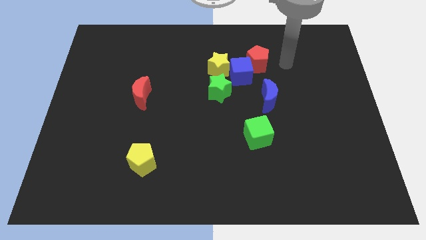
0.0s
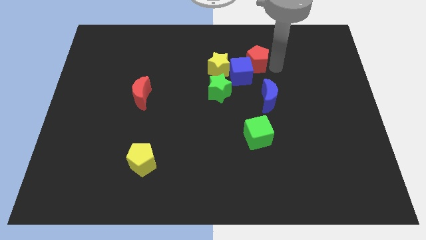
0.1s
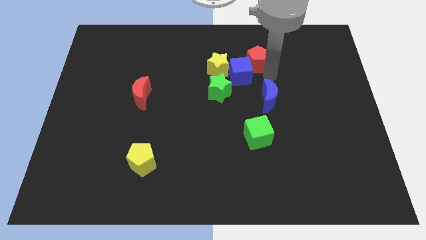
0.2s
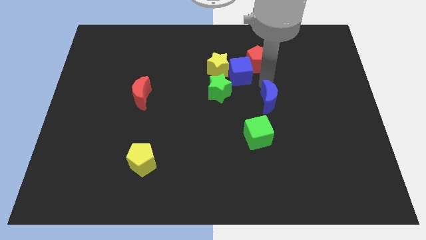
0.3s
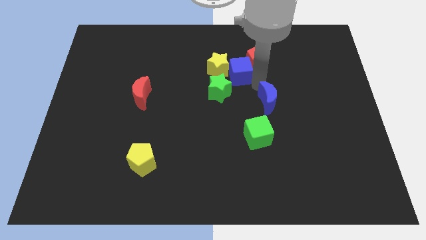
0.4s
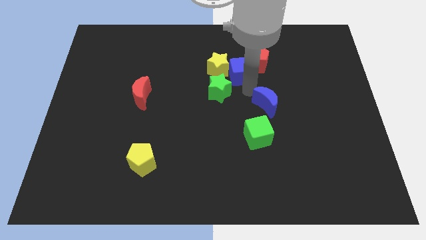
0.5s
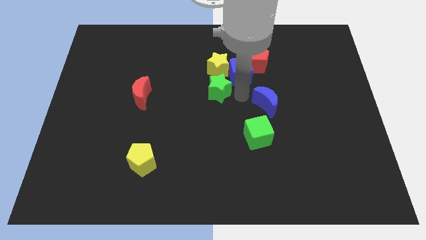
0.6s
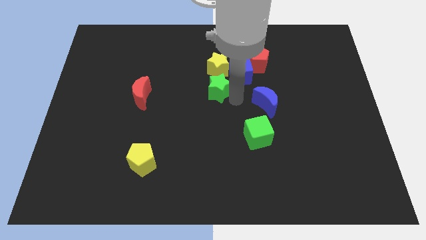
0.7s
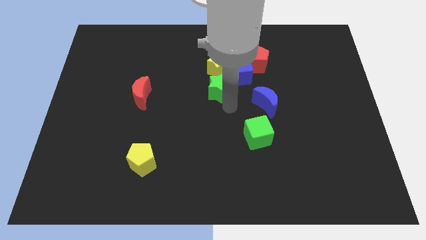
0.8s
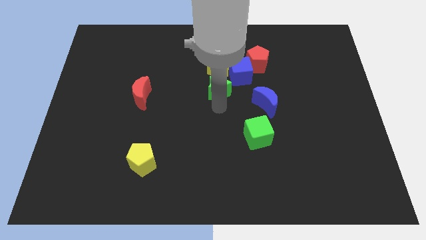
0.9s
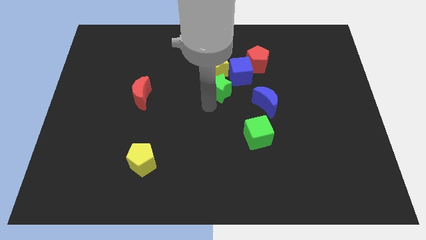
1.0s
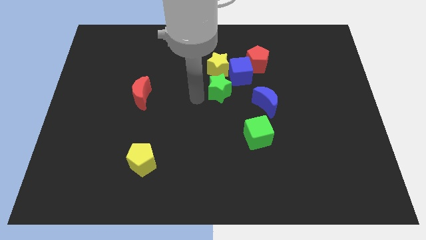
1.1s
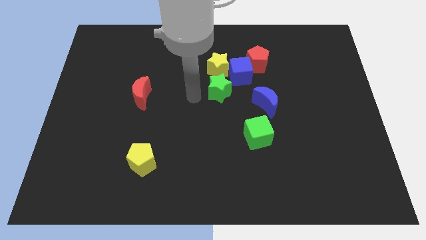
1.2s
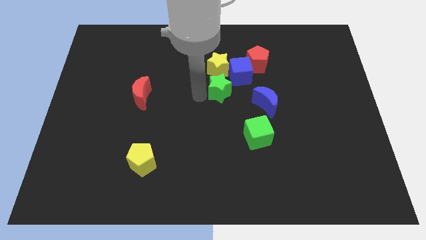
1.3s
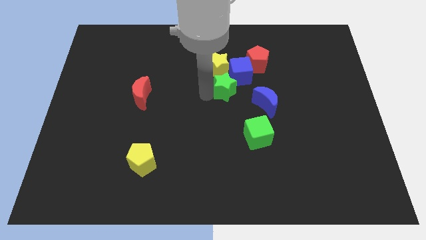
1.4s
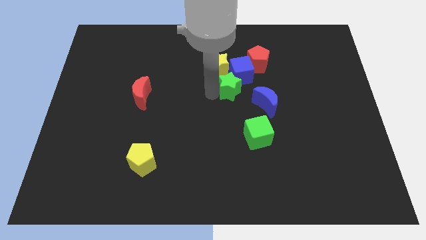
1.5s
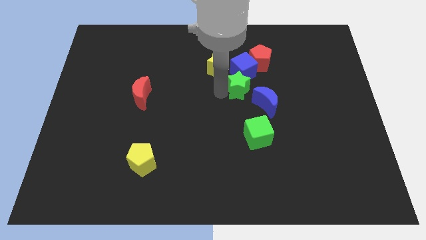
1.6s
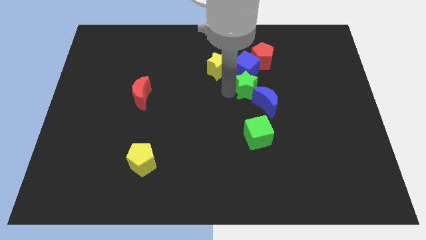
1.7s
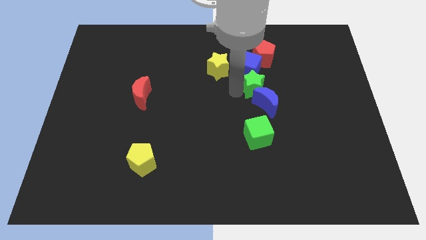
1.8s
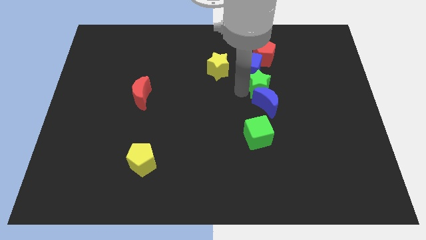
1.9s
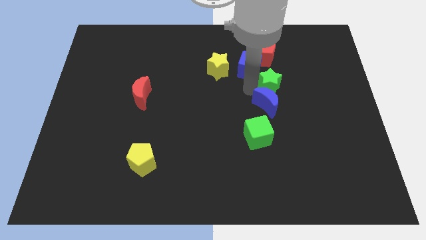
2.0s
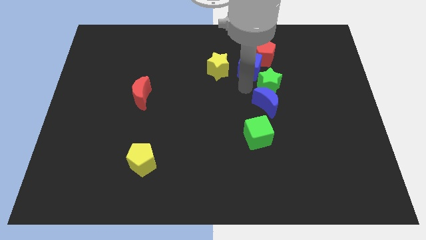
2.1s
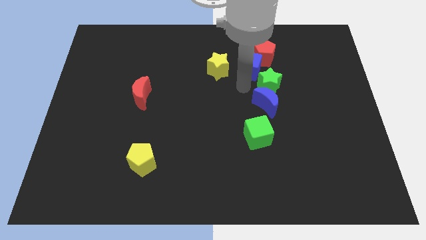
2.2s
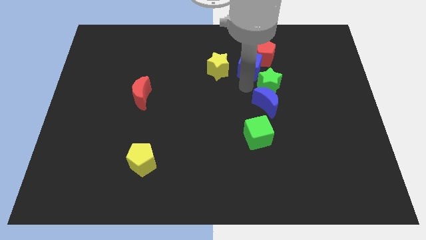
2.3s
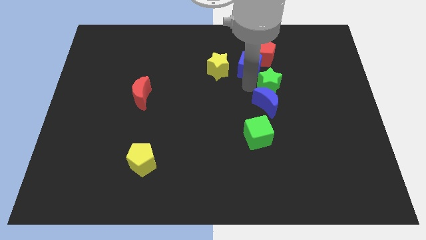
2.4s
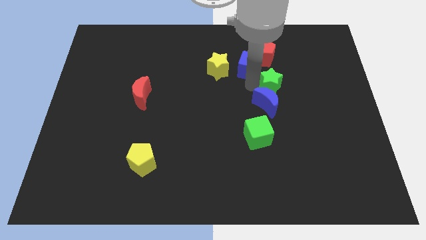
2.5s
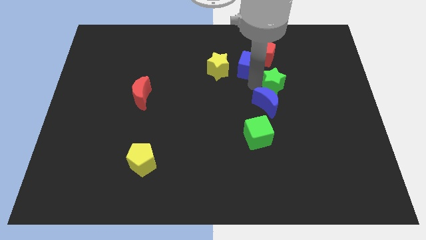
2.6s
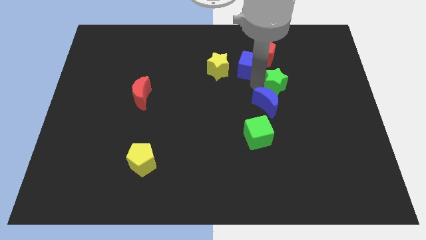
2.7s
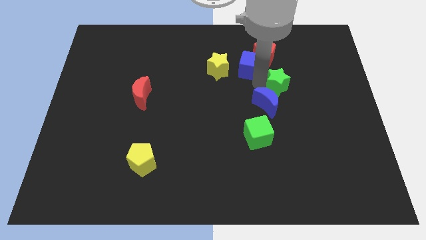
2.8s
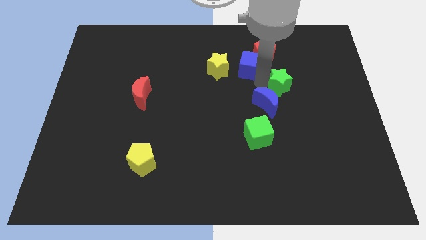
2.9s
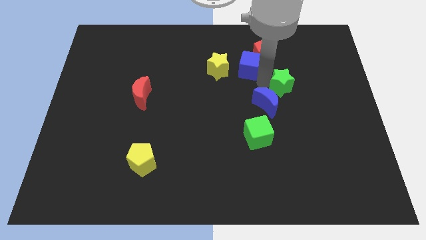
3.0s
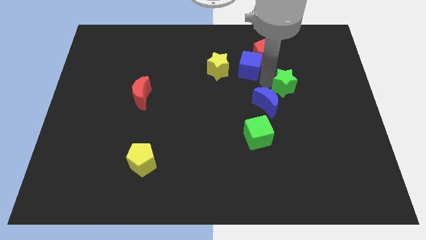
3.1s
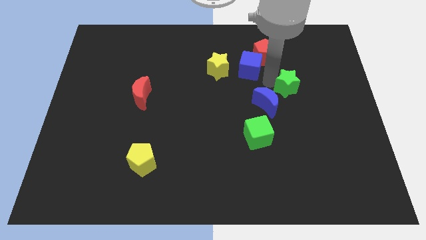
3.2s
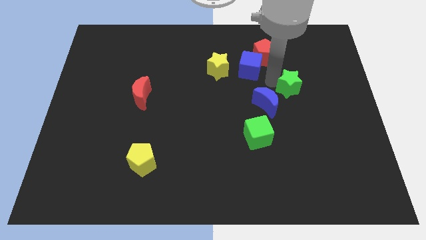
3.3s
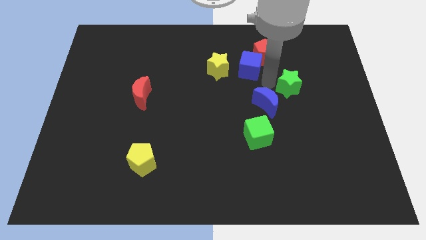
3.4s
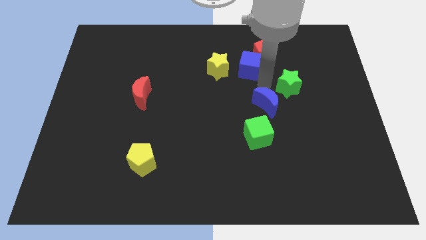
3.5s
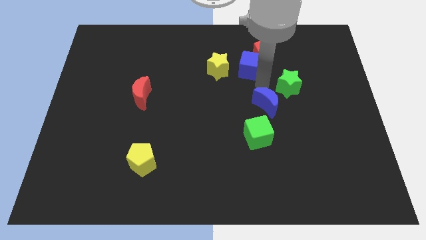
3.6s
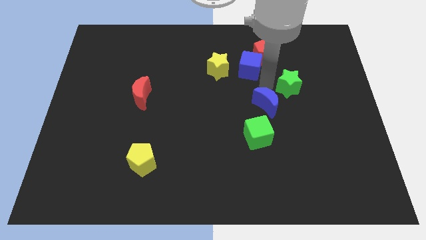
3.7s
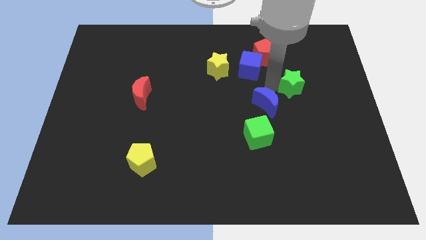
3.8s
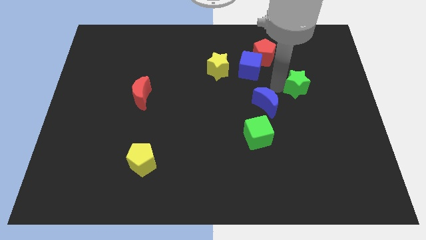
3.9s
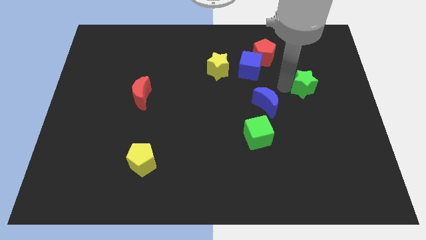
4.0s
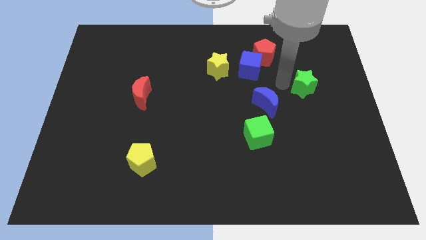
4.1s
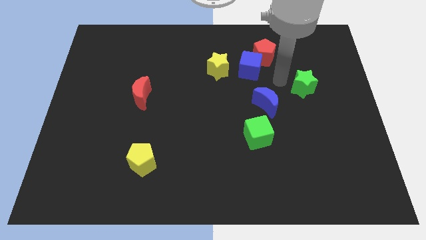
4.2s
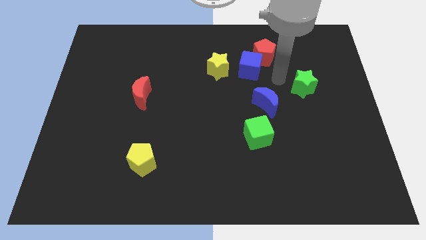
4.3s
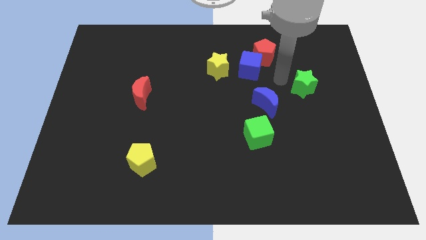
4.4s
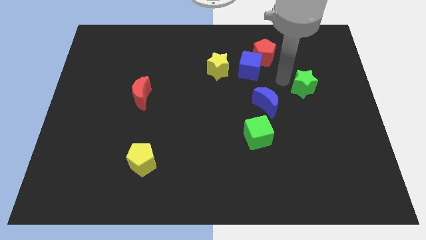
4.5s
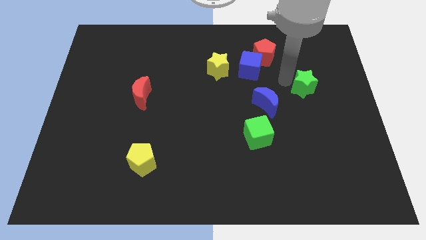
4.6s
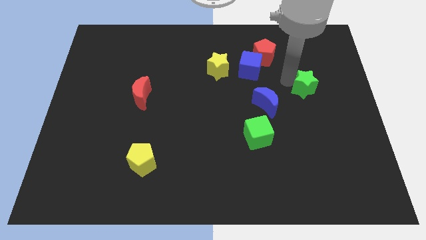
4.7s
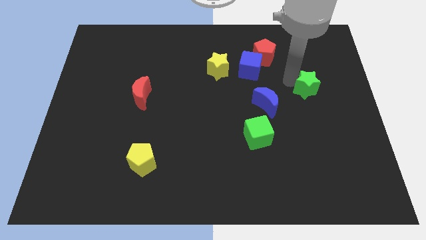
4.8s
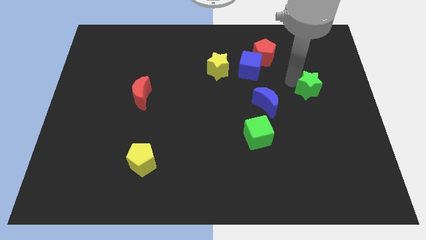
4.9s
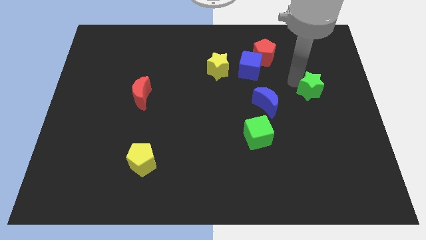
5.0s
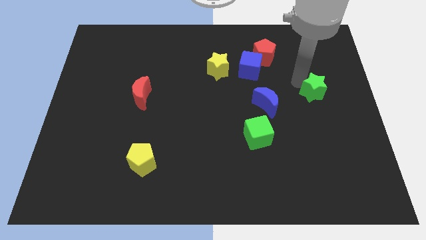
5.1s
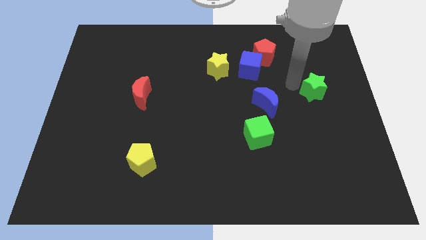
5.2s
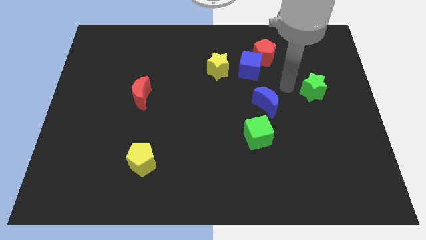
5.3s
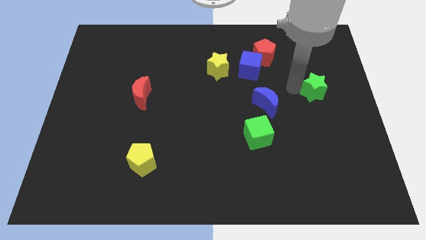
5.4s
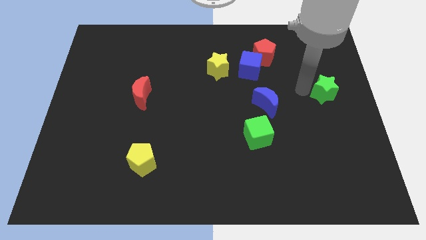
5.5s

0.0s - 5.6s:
slide the green star to the right side
